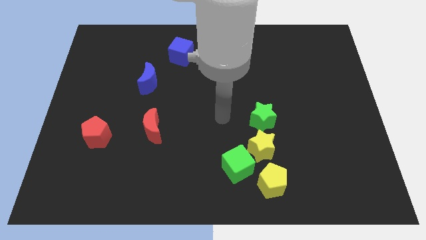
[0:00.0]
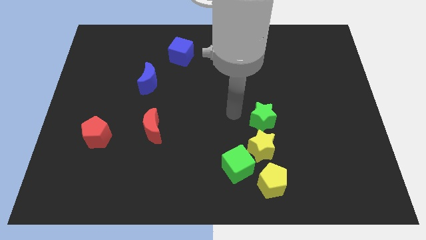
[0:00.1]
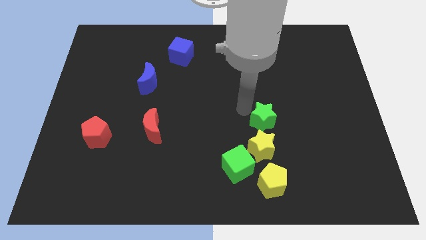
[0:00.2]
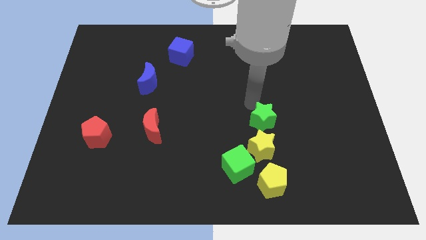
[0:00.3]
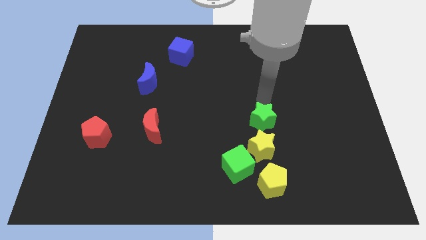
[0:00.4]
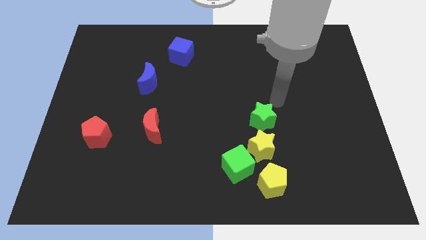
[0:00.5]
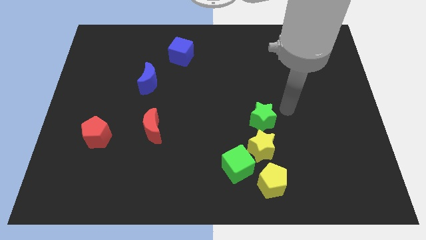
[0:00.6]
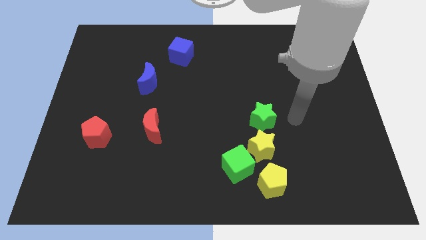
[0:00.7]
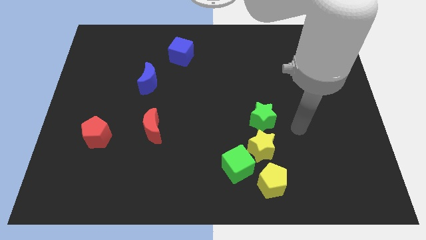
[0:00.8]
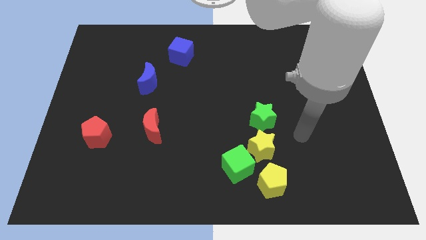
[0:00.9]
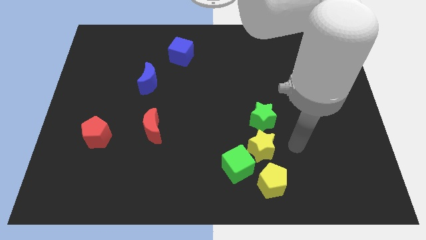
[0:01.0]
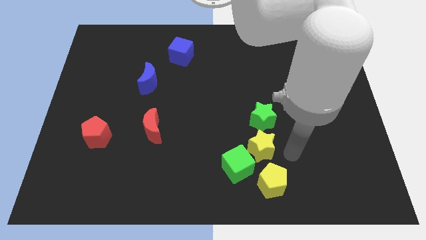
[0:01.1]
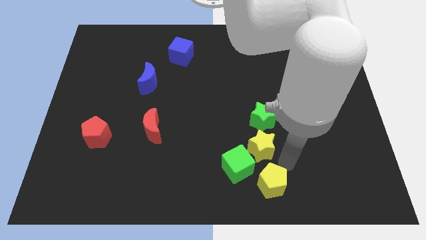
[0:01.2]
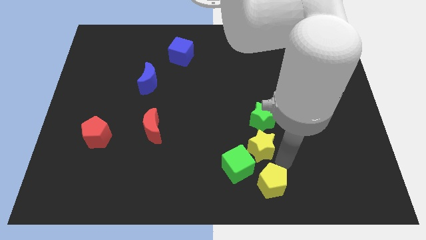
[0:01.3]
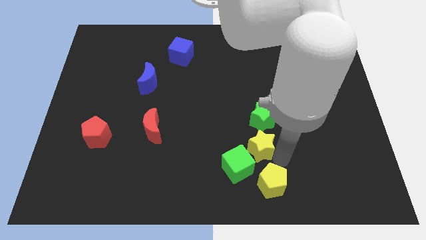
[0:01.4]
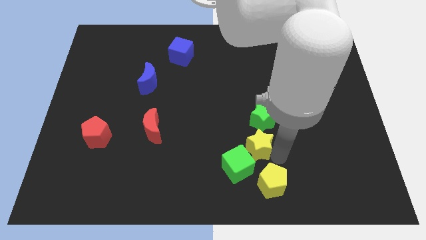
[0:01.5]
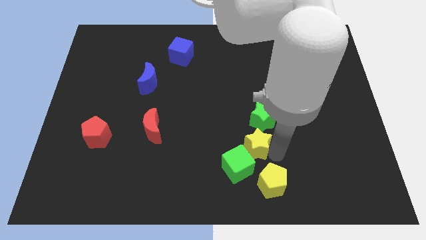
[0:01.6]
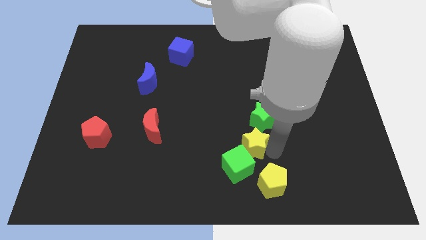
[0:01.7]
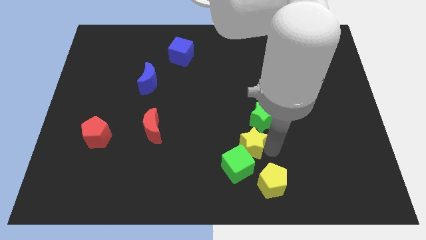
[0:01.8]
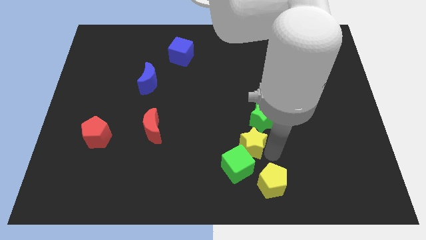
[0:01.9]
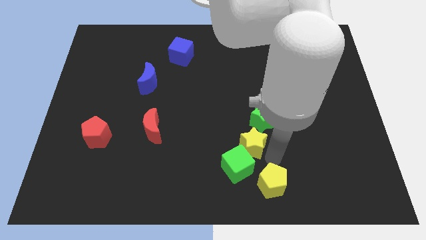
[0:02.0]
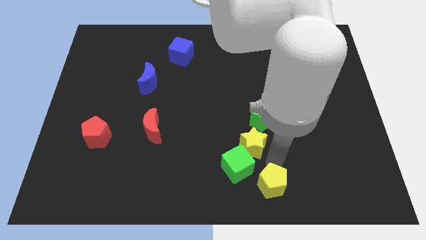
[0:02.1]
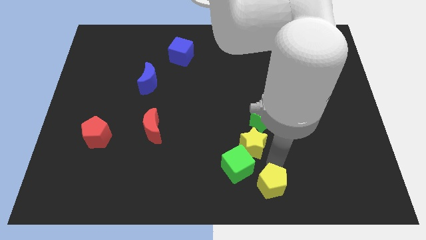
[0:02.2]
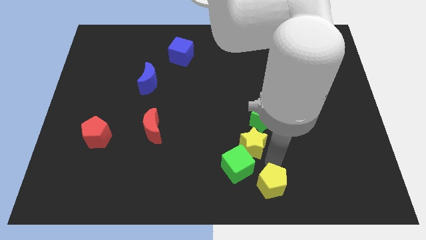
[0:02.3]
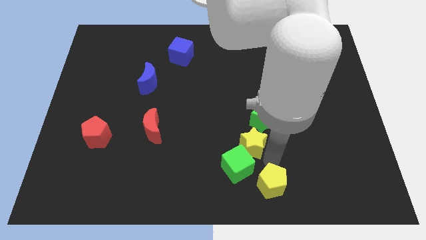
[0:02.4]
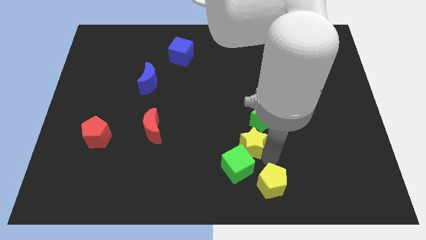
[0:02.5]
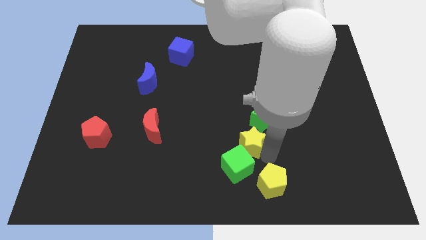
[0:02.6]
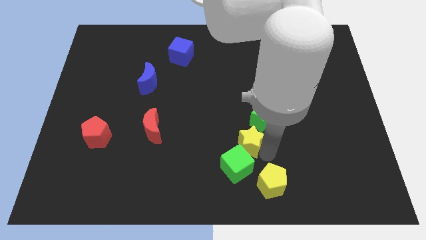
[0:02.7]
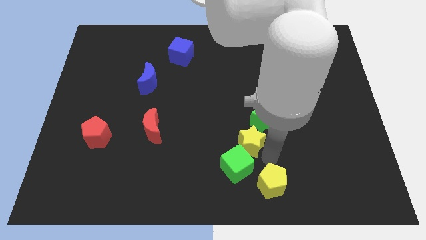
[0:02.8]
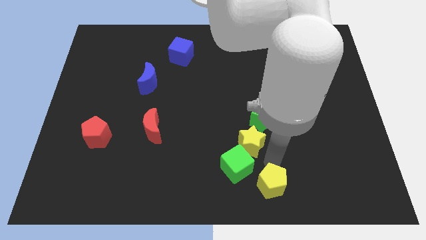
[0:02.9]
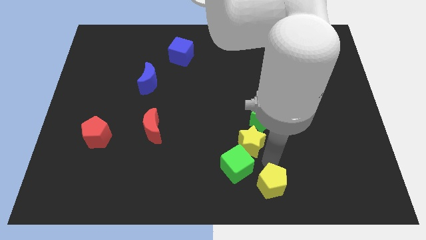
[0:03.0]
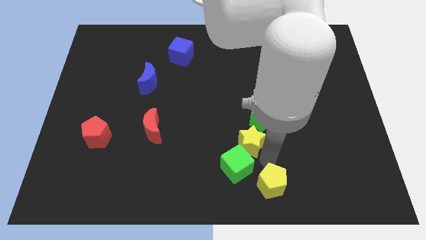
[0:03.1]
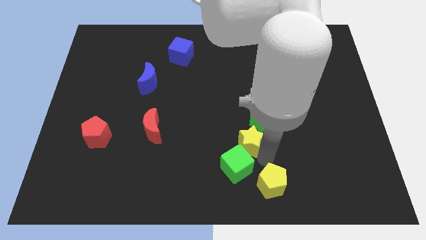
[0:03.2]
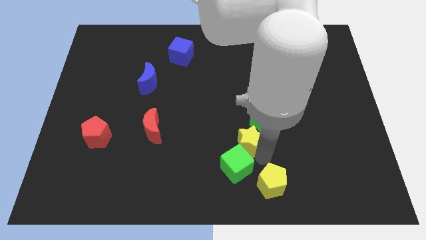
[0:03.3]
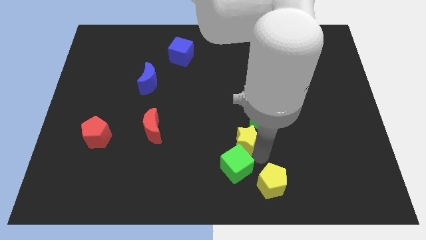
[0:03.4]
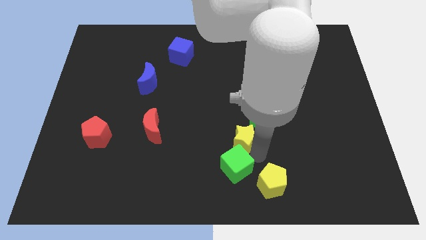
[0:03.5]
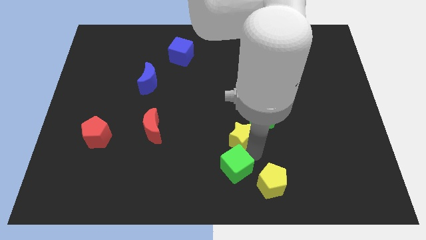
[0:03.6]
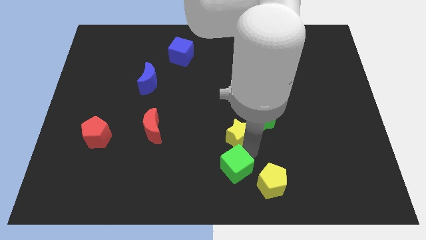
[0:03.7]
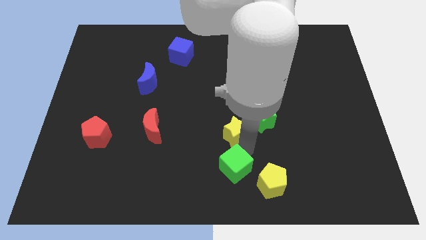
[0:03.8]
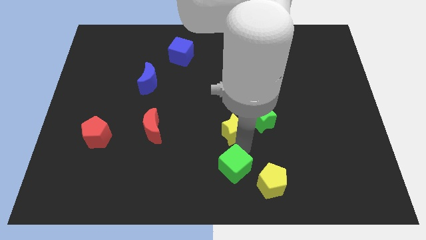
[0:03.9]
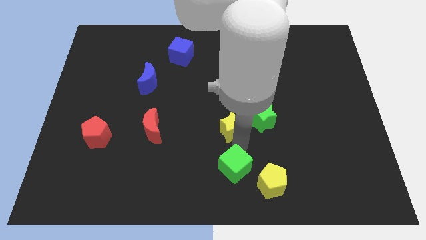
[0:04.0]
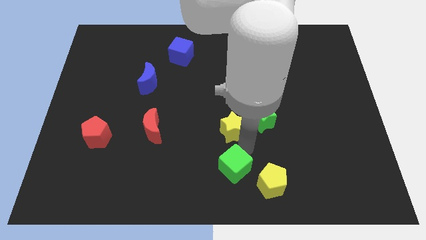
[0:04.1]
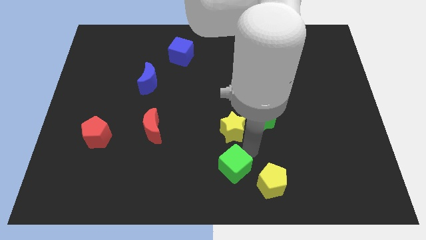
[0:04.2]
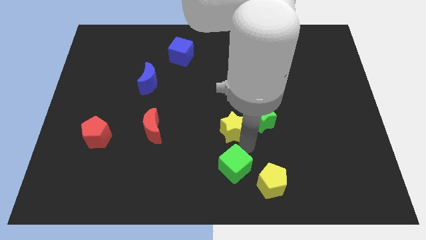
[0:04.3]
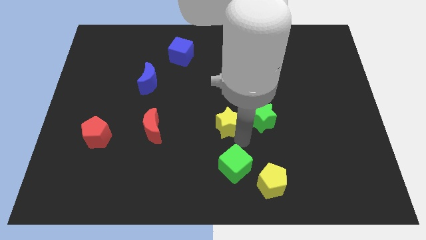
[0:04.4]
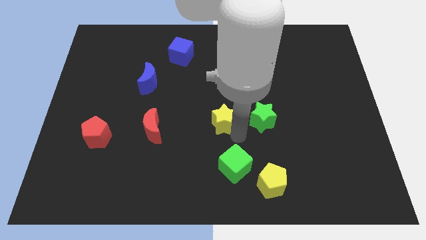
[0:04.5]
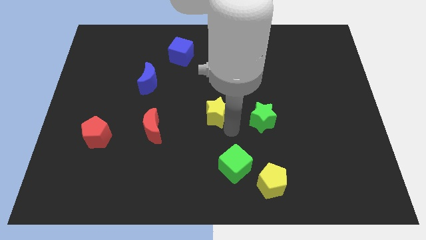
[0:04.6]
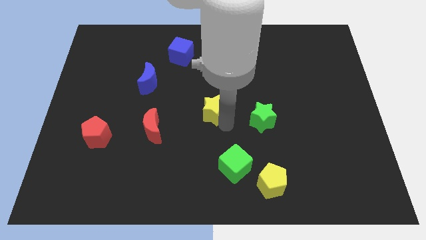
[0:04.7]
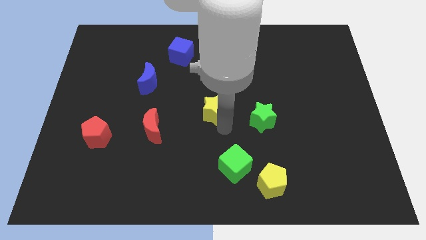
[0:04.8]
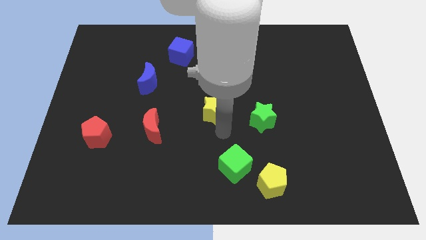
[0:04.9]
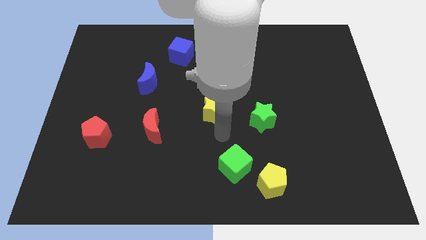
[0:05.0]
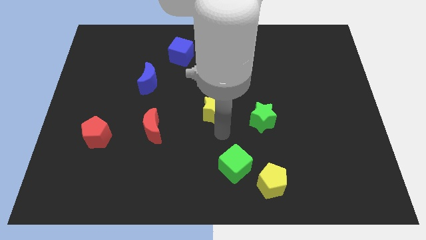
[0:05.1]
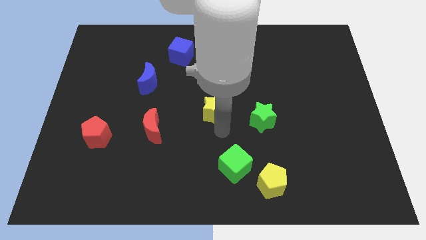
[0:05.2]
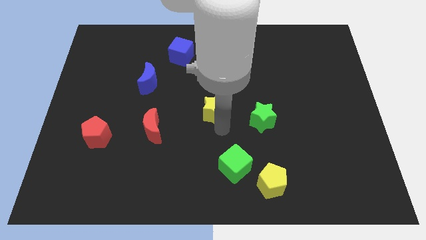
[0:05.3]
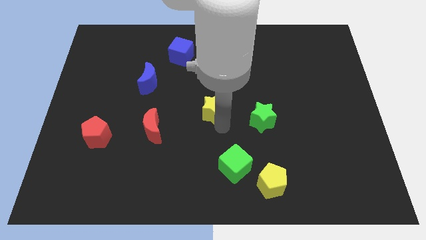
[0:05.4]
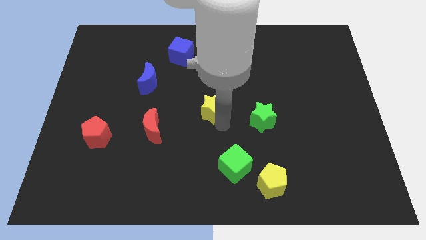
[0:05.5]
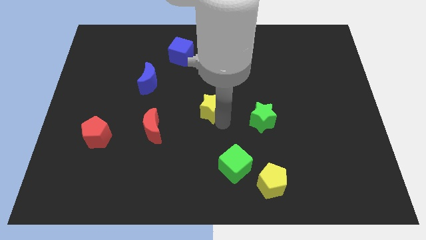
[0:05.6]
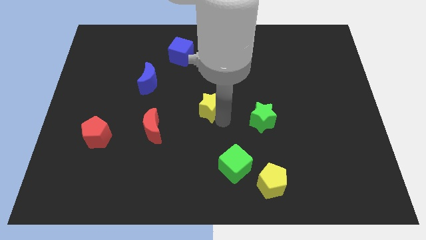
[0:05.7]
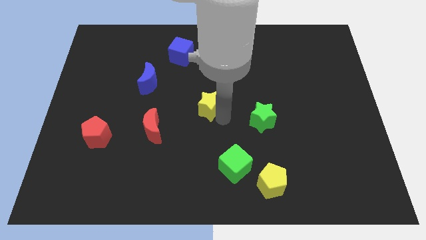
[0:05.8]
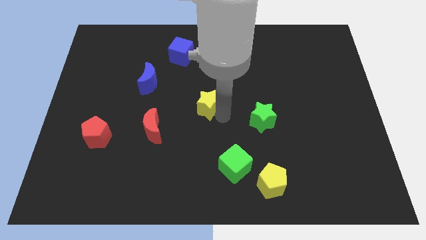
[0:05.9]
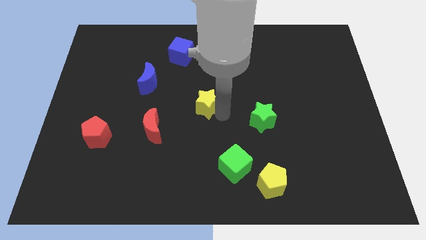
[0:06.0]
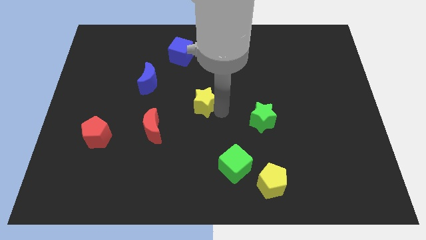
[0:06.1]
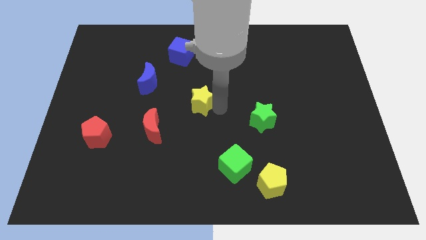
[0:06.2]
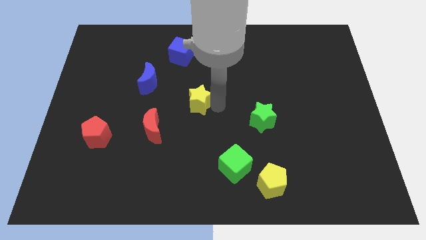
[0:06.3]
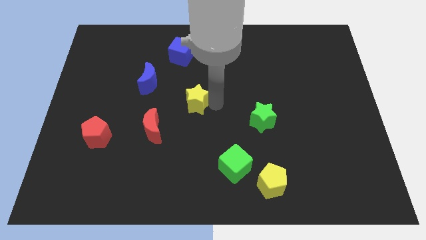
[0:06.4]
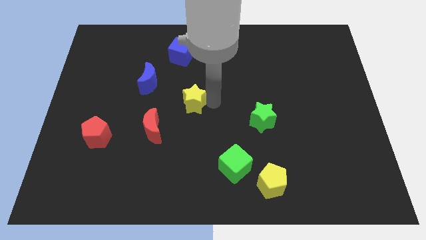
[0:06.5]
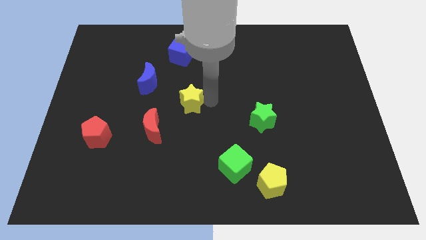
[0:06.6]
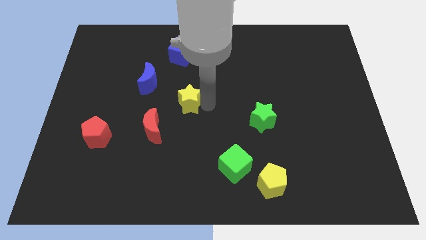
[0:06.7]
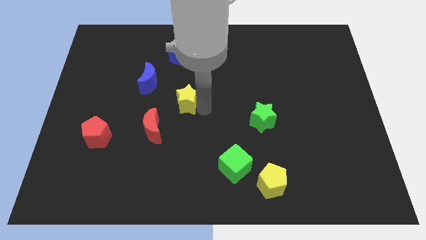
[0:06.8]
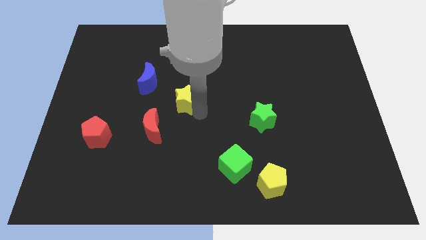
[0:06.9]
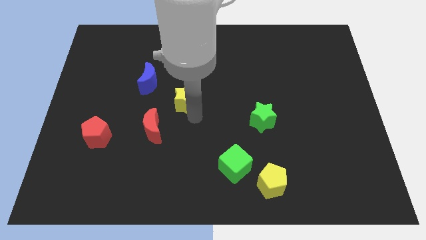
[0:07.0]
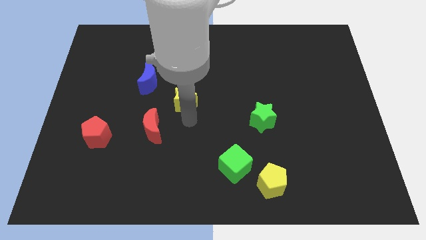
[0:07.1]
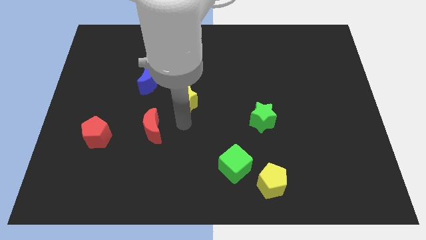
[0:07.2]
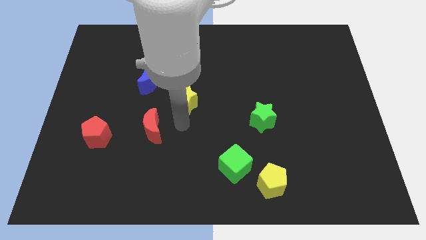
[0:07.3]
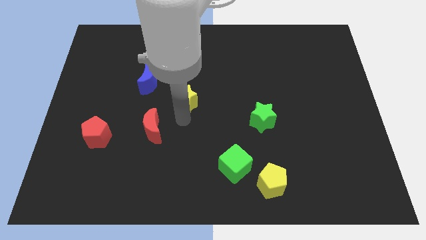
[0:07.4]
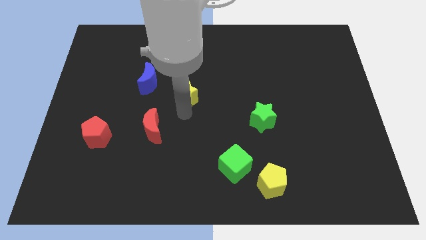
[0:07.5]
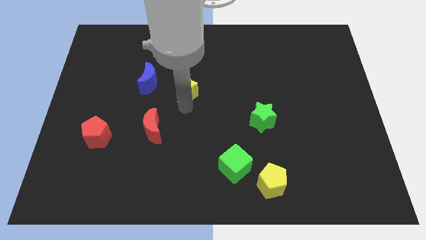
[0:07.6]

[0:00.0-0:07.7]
push the yellow star just right of the blue moon
